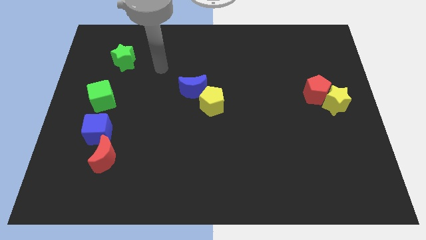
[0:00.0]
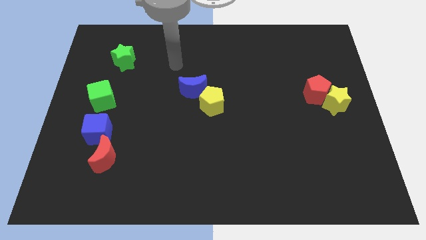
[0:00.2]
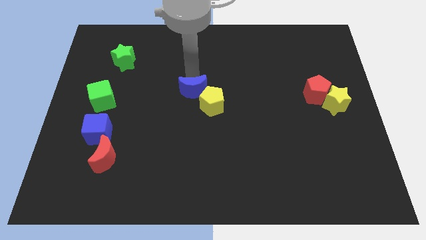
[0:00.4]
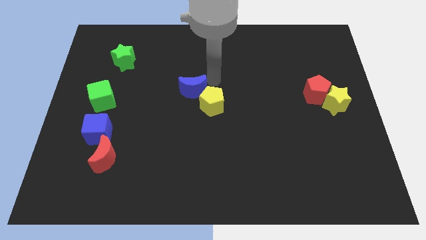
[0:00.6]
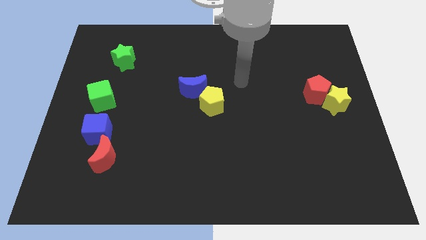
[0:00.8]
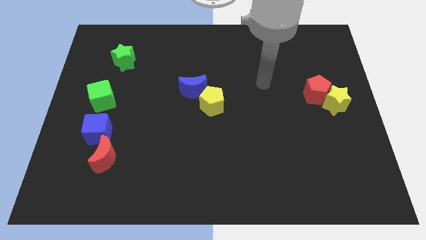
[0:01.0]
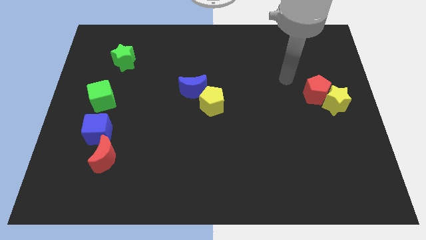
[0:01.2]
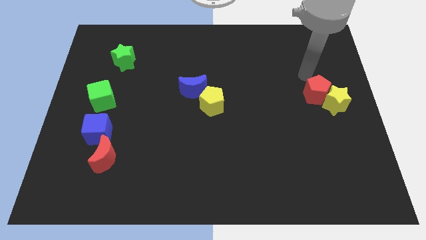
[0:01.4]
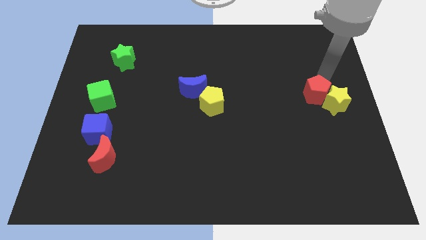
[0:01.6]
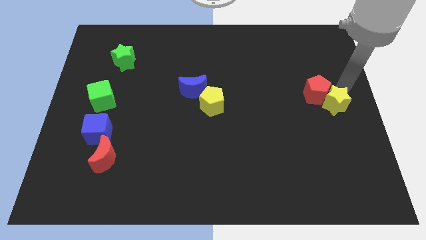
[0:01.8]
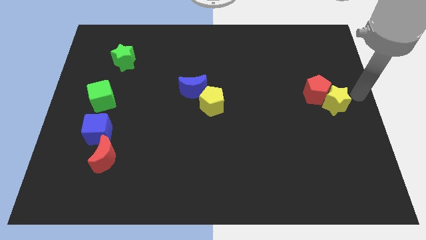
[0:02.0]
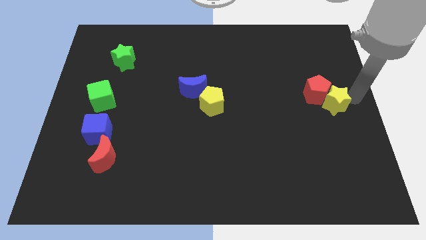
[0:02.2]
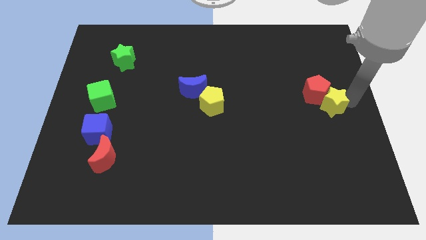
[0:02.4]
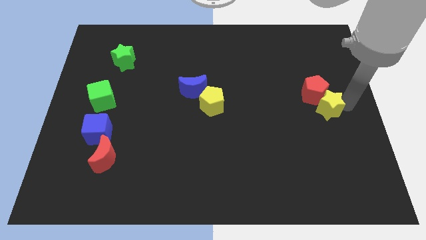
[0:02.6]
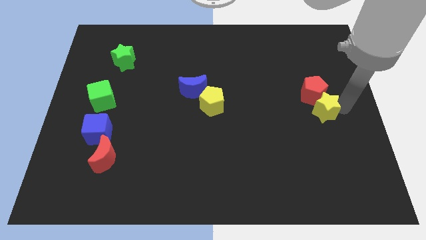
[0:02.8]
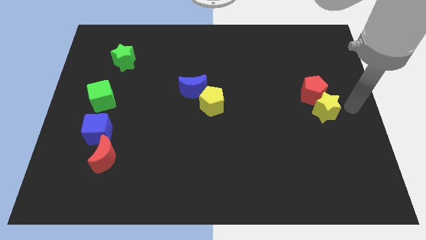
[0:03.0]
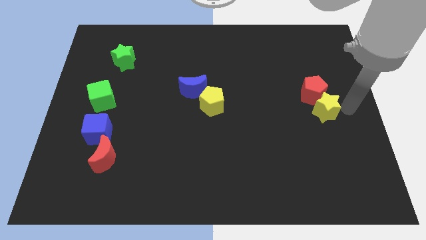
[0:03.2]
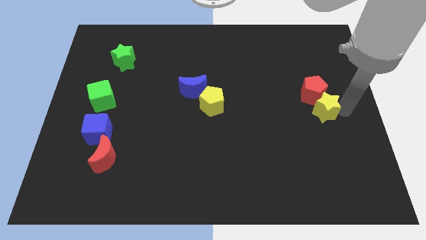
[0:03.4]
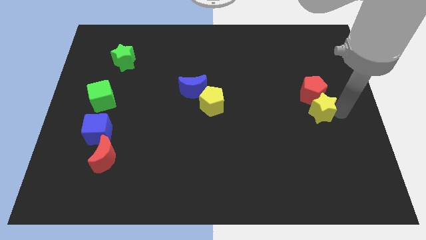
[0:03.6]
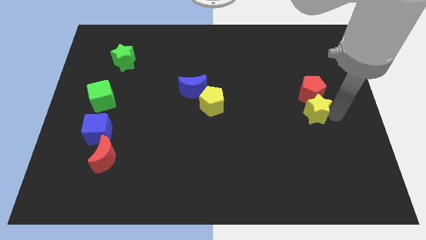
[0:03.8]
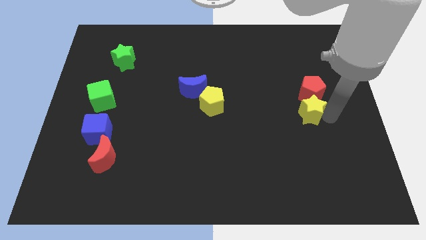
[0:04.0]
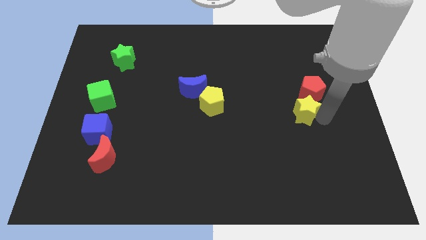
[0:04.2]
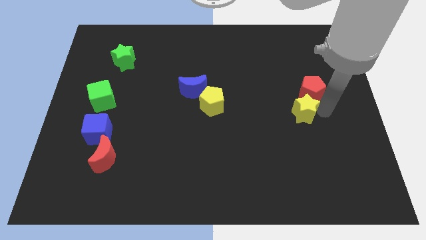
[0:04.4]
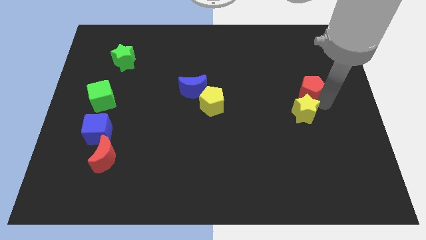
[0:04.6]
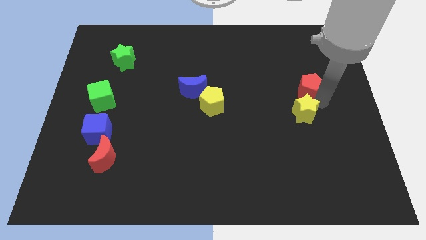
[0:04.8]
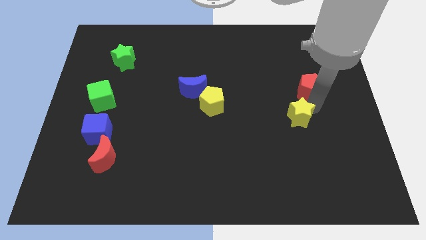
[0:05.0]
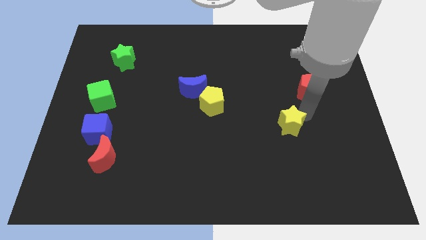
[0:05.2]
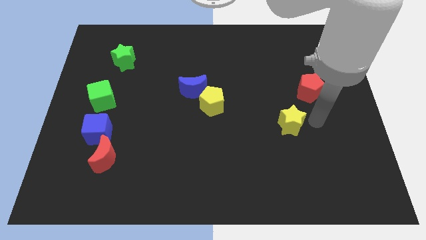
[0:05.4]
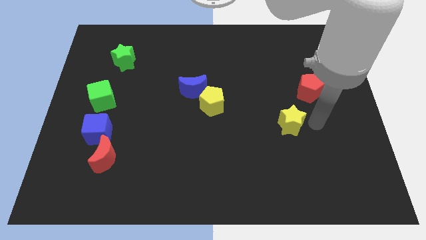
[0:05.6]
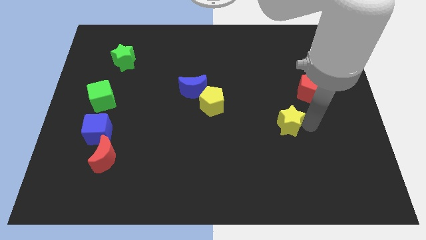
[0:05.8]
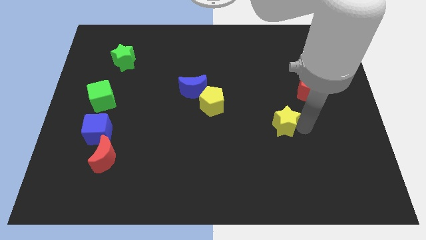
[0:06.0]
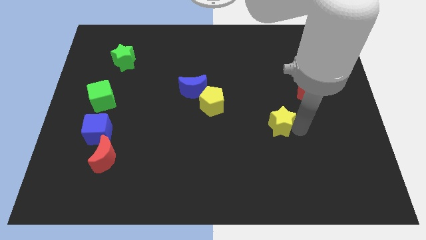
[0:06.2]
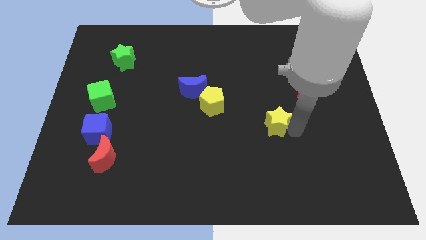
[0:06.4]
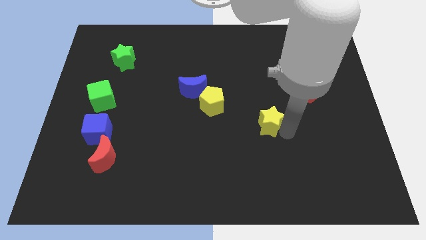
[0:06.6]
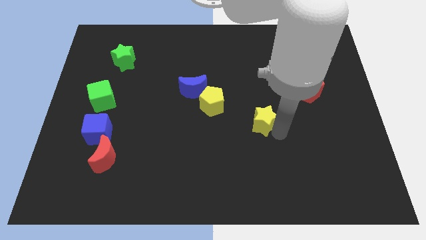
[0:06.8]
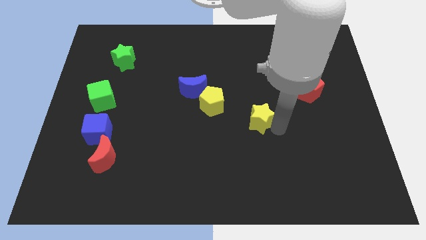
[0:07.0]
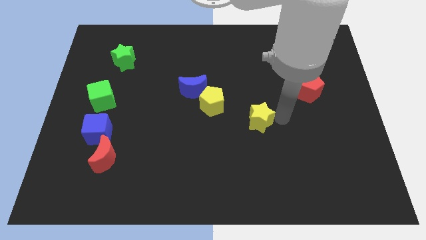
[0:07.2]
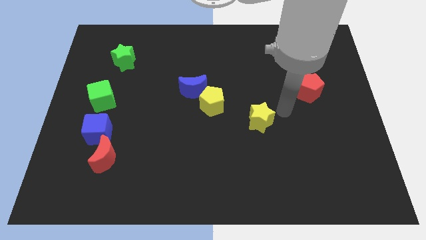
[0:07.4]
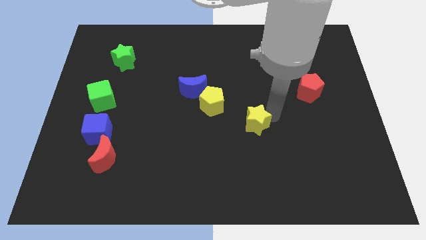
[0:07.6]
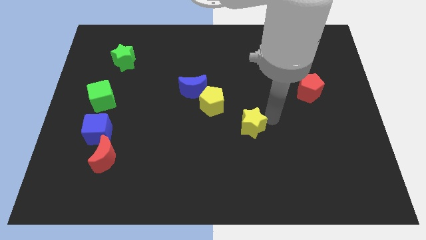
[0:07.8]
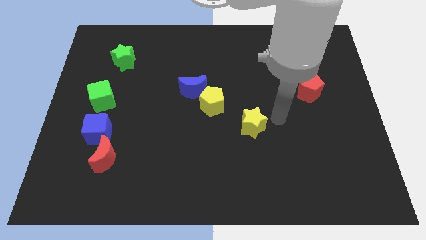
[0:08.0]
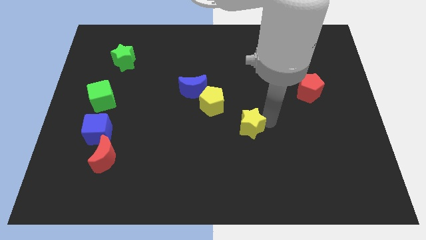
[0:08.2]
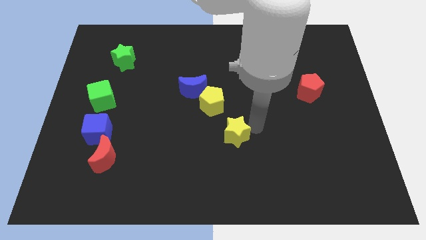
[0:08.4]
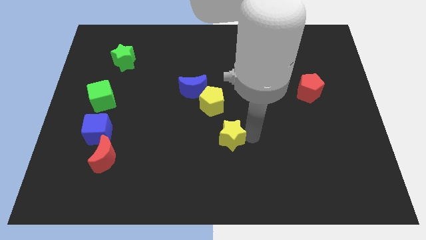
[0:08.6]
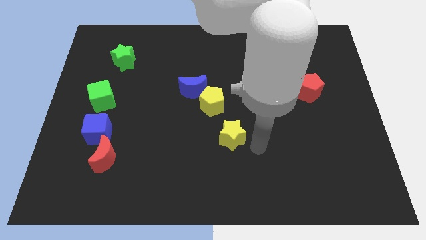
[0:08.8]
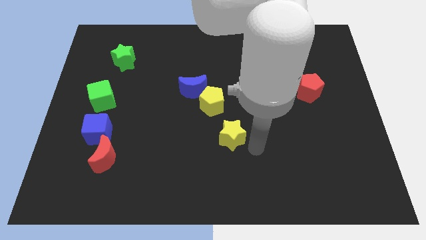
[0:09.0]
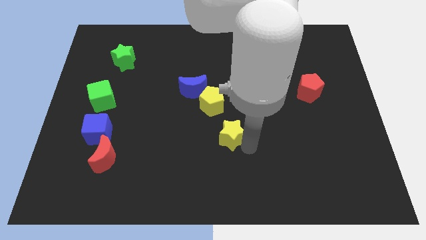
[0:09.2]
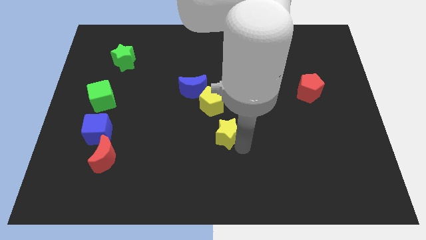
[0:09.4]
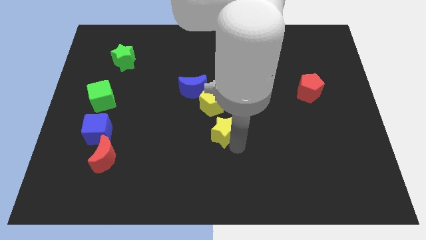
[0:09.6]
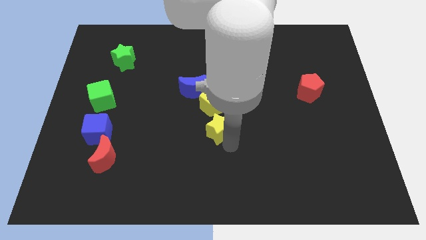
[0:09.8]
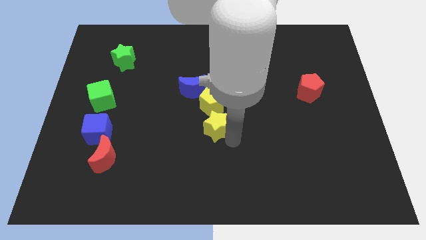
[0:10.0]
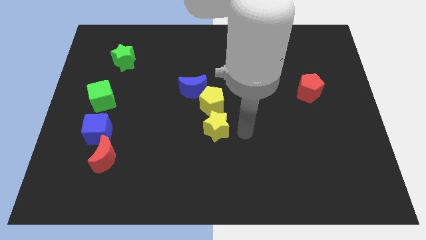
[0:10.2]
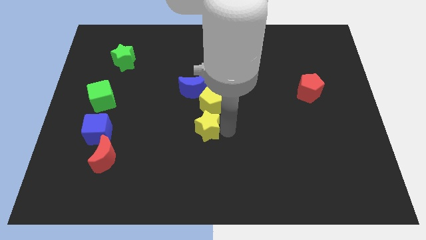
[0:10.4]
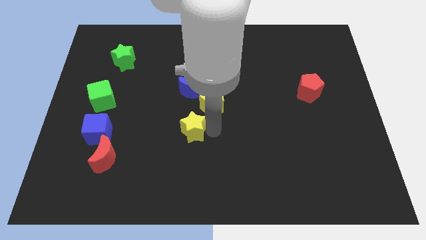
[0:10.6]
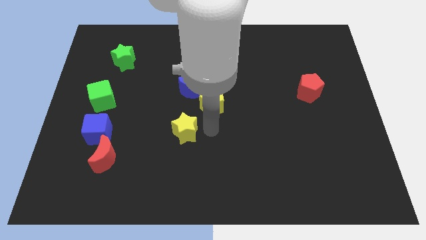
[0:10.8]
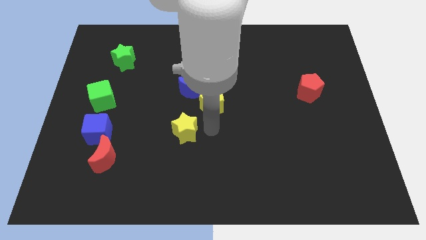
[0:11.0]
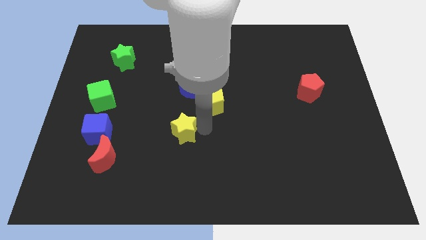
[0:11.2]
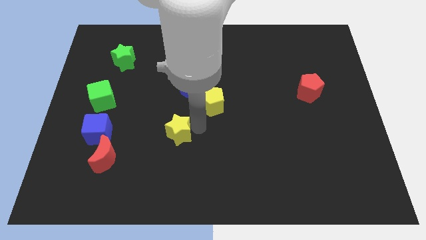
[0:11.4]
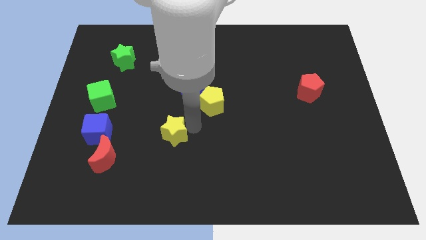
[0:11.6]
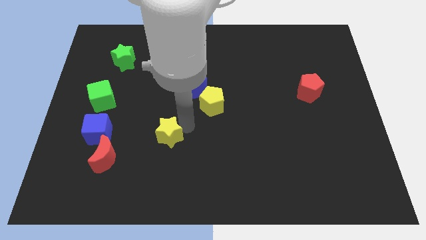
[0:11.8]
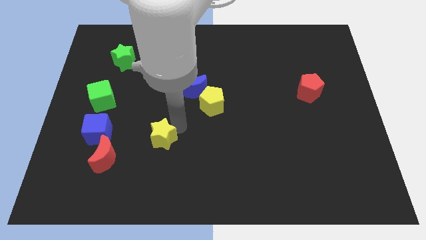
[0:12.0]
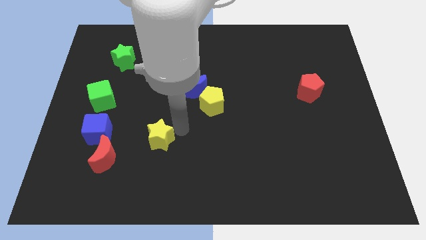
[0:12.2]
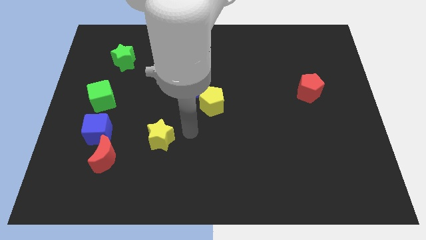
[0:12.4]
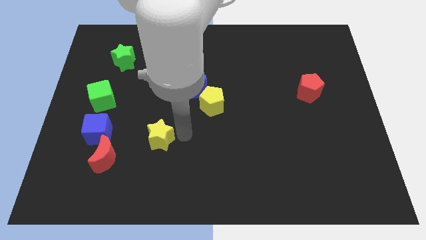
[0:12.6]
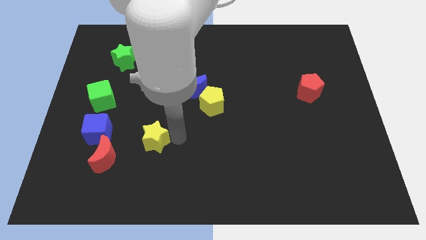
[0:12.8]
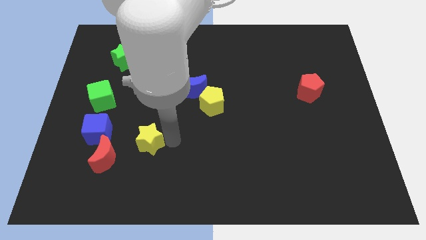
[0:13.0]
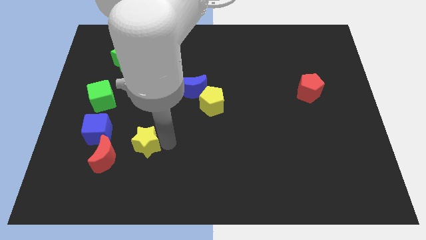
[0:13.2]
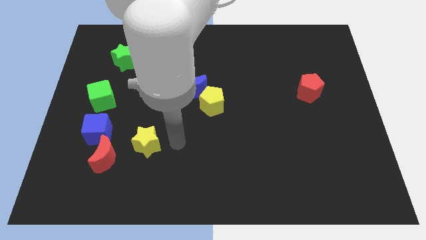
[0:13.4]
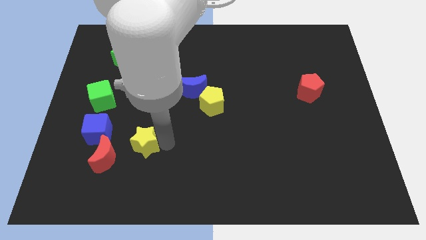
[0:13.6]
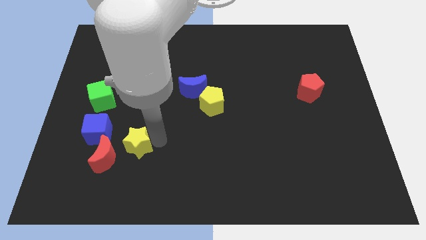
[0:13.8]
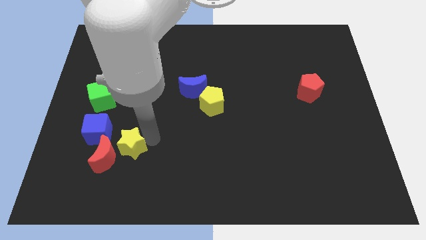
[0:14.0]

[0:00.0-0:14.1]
move the yellow star to the red moon
